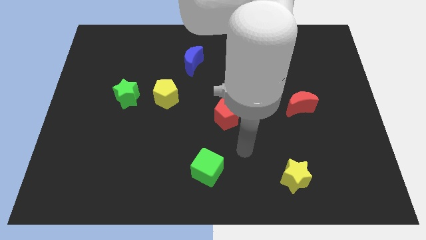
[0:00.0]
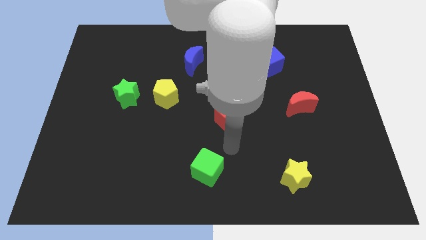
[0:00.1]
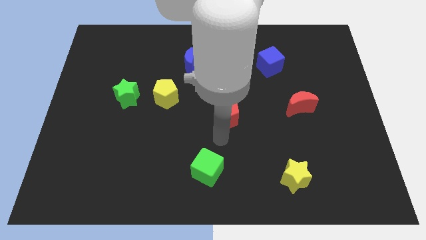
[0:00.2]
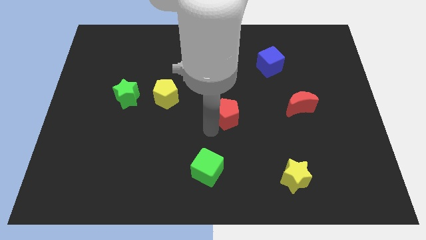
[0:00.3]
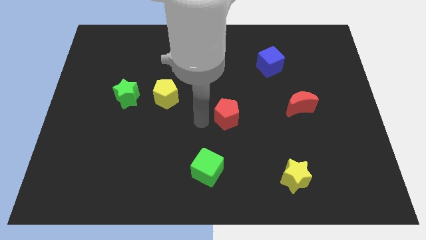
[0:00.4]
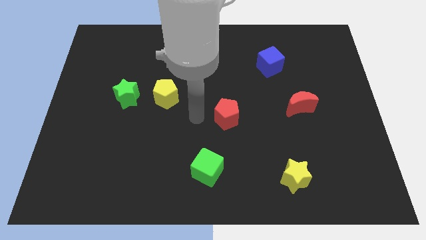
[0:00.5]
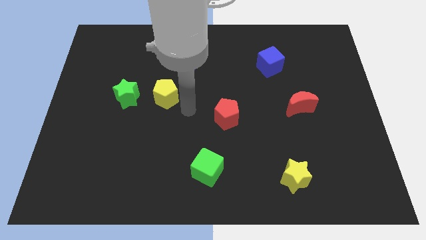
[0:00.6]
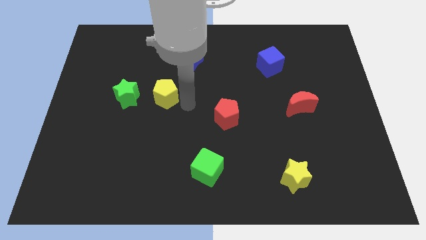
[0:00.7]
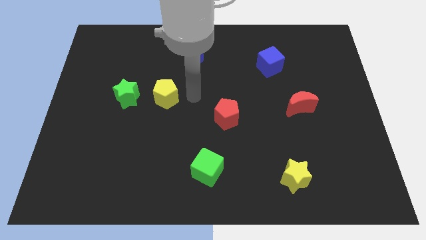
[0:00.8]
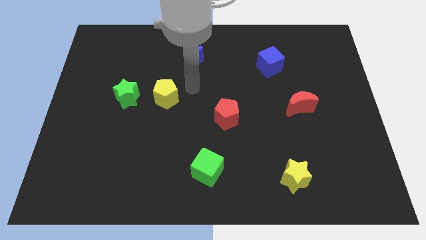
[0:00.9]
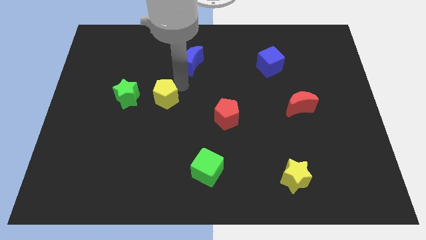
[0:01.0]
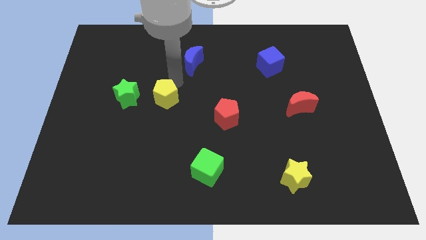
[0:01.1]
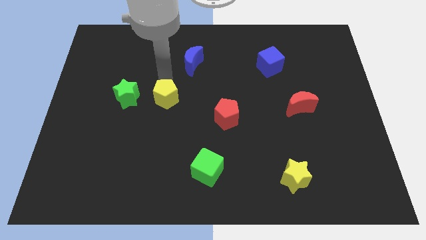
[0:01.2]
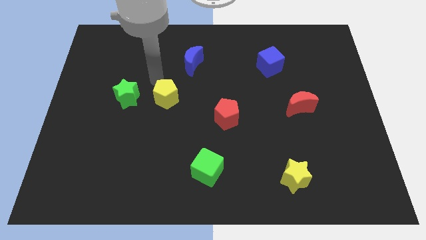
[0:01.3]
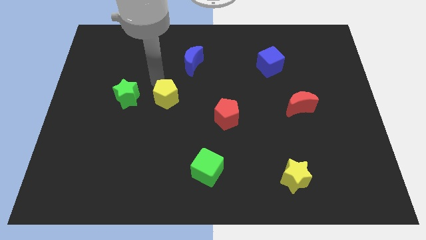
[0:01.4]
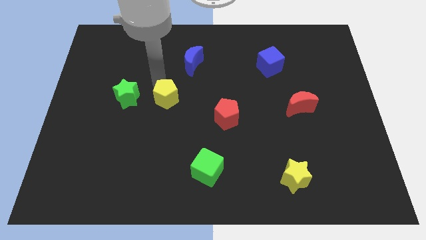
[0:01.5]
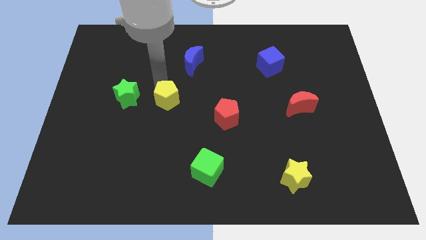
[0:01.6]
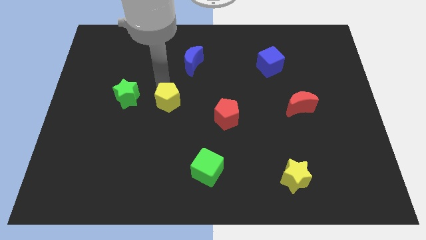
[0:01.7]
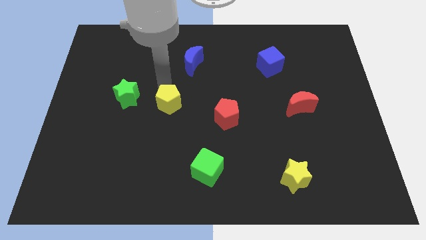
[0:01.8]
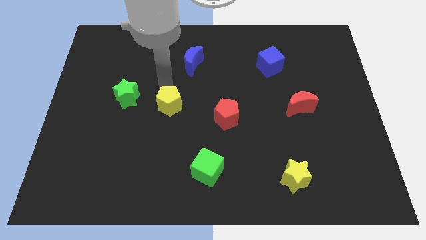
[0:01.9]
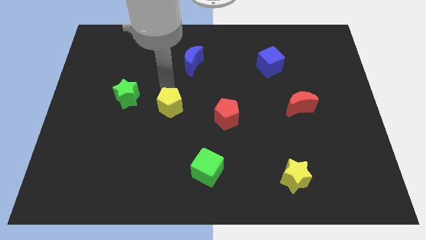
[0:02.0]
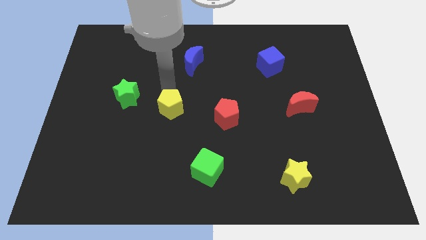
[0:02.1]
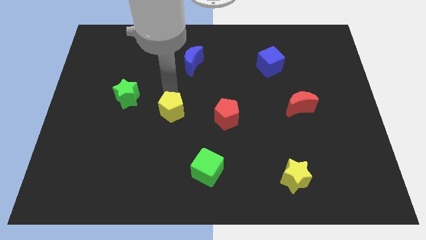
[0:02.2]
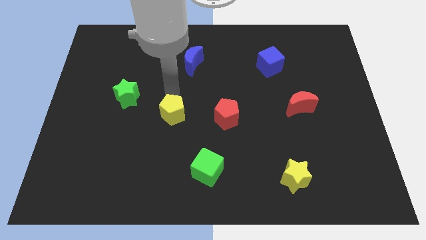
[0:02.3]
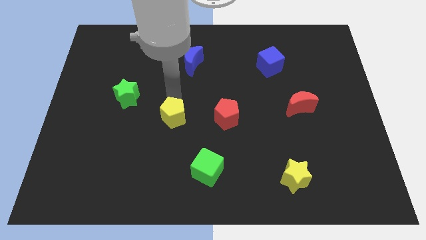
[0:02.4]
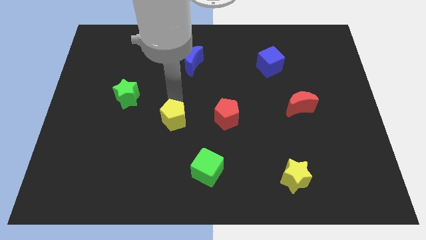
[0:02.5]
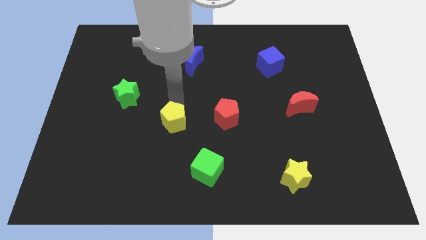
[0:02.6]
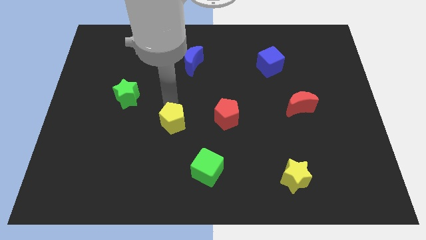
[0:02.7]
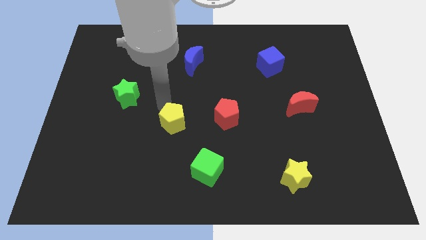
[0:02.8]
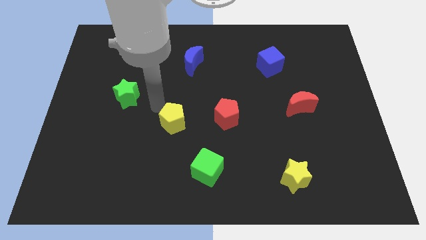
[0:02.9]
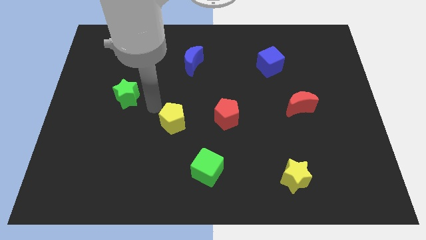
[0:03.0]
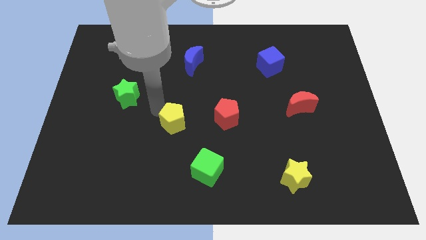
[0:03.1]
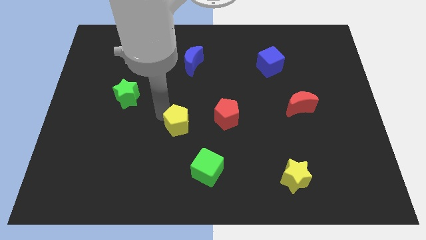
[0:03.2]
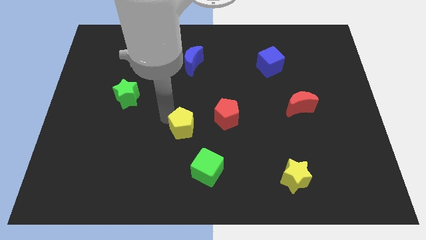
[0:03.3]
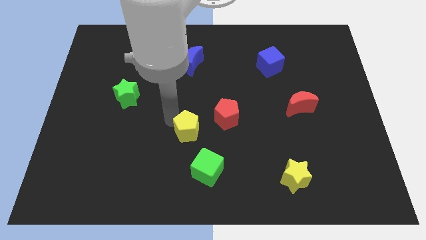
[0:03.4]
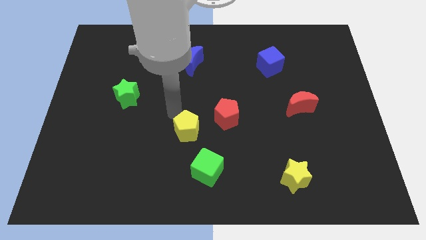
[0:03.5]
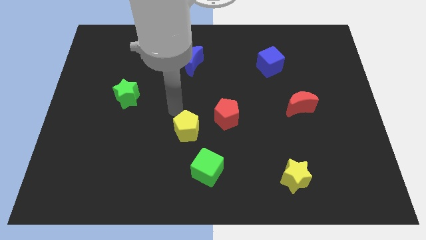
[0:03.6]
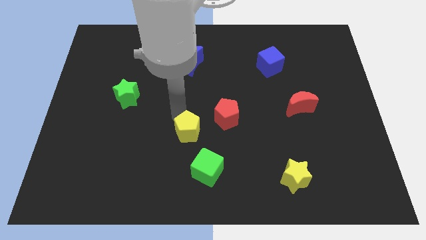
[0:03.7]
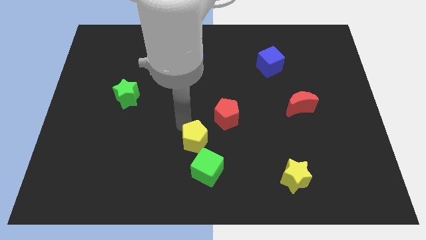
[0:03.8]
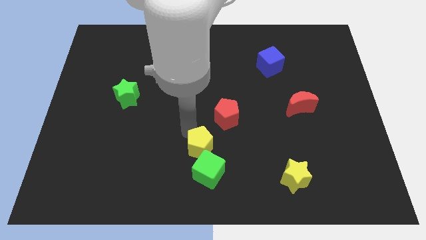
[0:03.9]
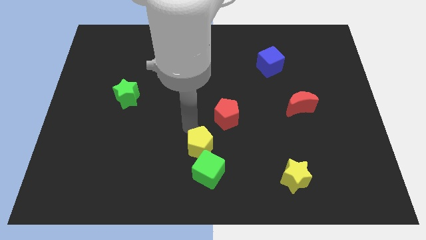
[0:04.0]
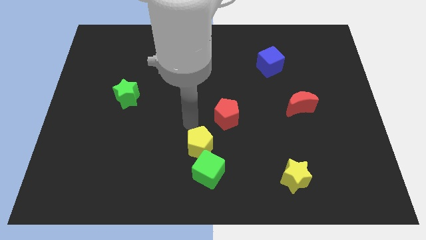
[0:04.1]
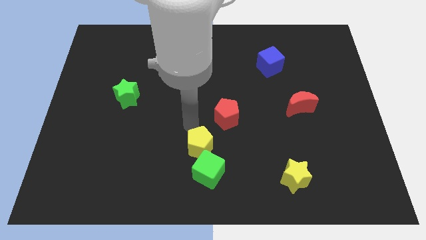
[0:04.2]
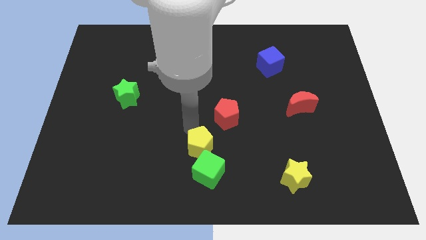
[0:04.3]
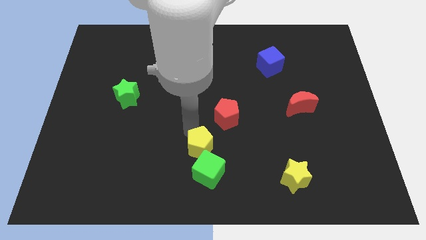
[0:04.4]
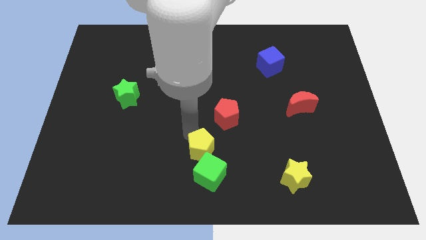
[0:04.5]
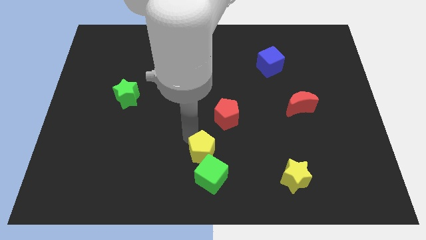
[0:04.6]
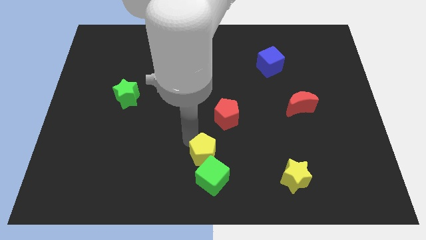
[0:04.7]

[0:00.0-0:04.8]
move the yellow pentagon next to the green cube

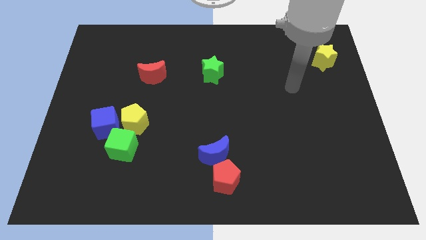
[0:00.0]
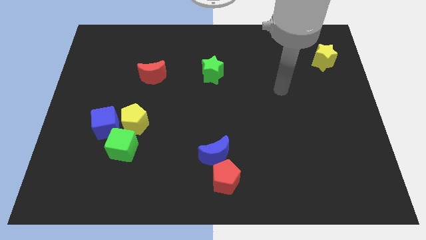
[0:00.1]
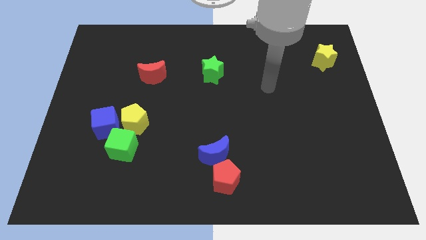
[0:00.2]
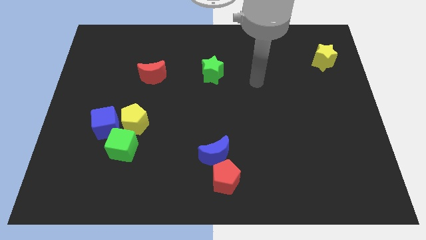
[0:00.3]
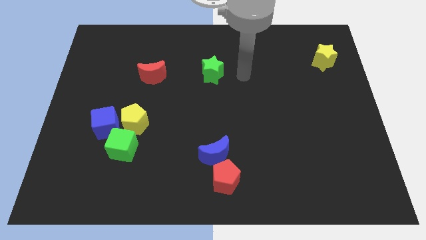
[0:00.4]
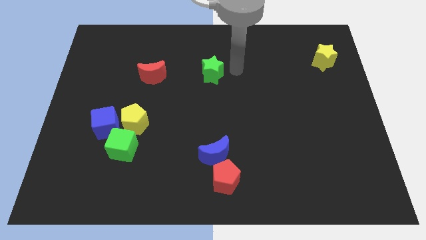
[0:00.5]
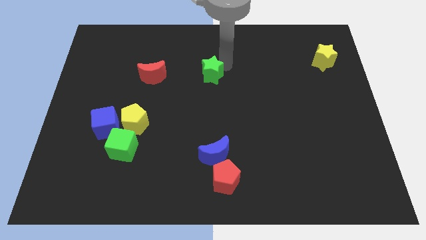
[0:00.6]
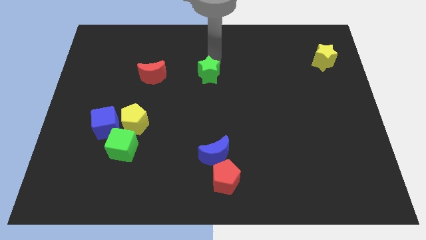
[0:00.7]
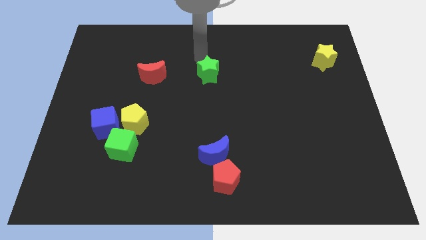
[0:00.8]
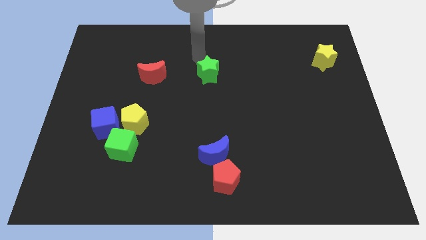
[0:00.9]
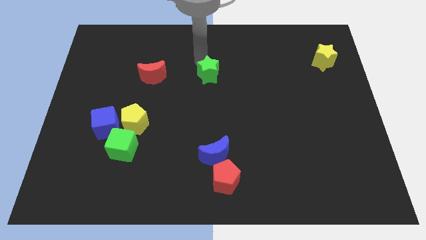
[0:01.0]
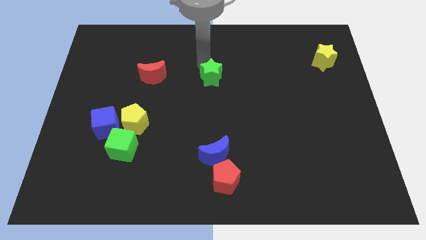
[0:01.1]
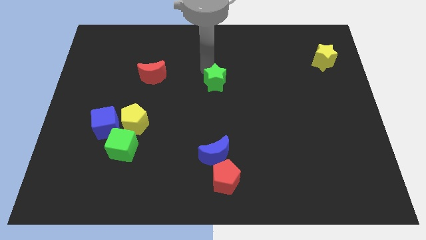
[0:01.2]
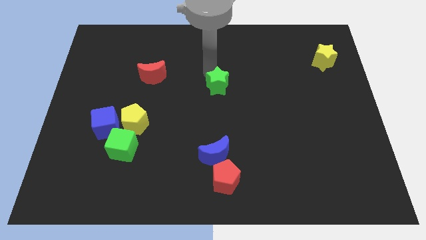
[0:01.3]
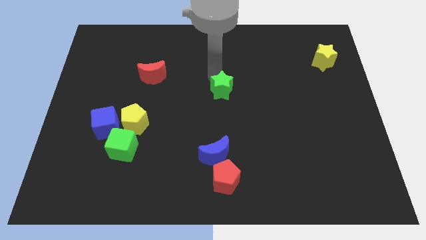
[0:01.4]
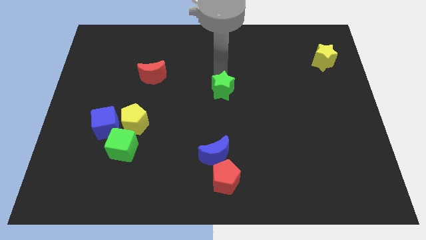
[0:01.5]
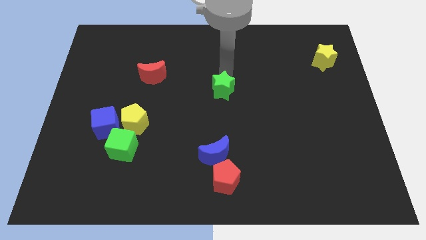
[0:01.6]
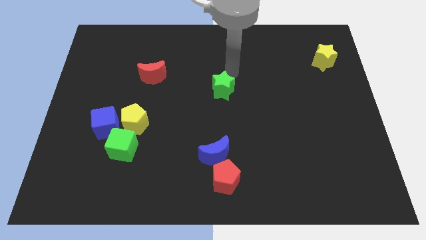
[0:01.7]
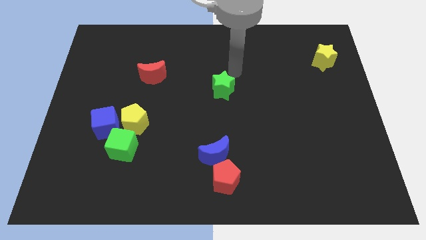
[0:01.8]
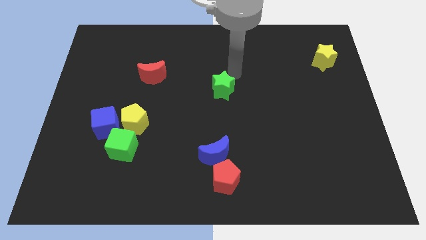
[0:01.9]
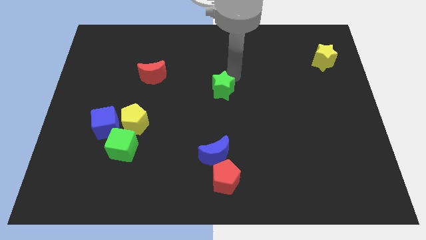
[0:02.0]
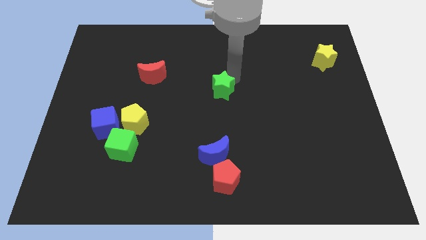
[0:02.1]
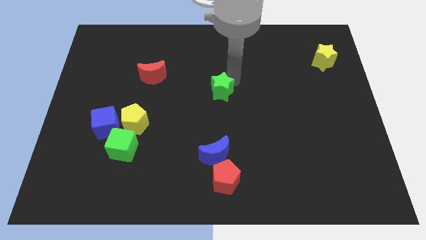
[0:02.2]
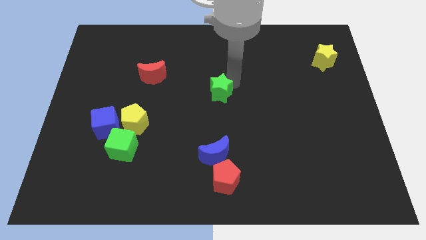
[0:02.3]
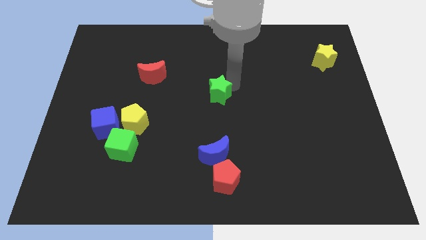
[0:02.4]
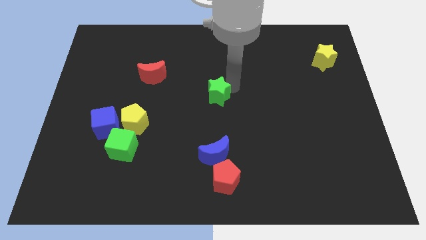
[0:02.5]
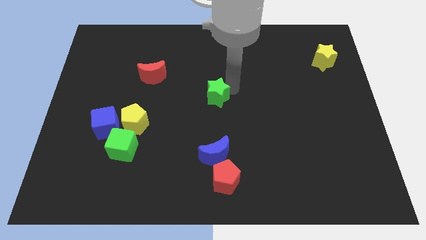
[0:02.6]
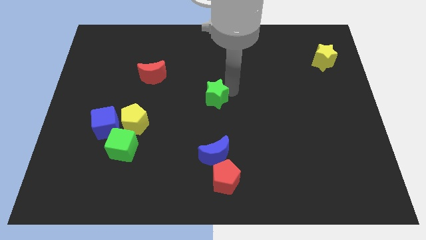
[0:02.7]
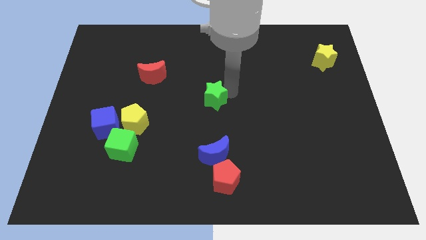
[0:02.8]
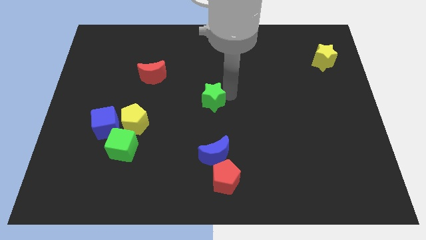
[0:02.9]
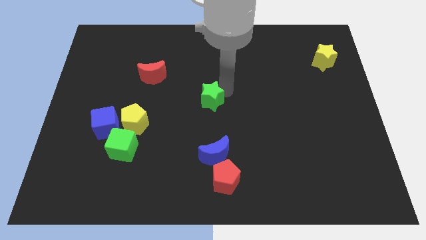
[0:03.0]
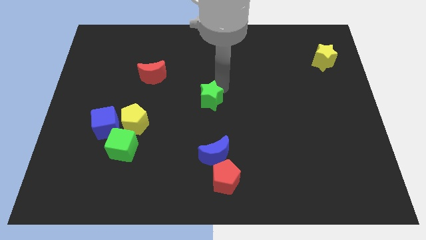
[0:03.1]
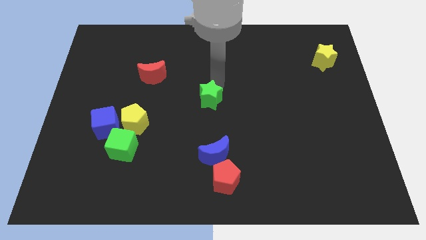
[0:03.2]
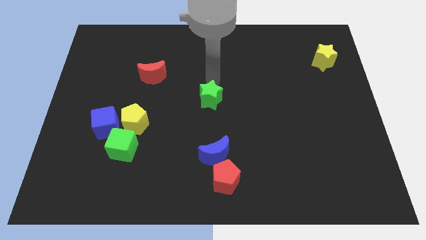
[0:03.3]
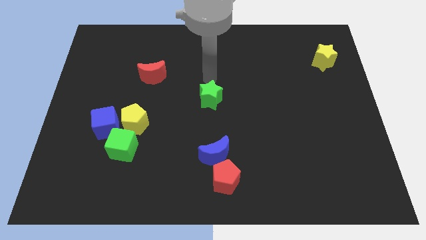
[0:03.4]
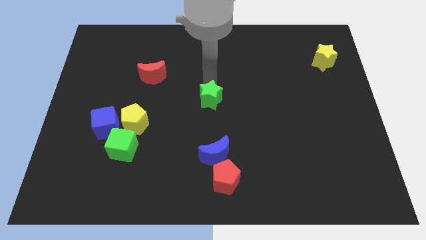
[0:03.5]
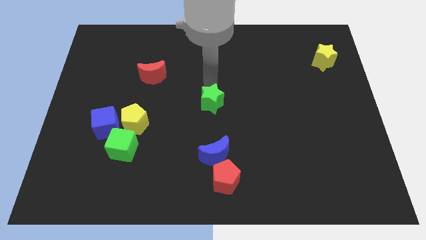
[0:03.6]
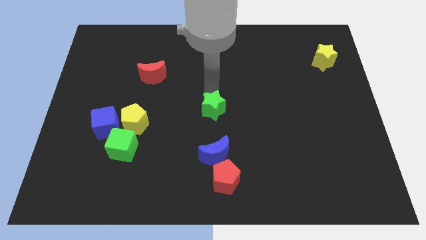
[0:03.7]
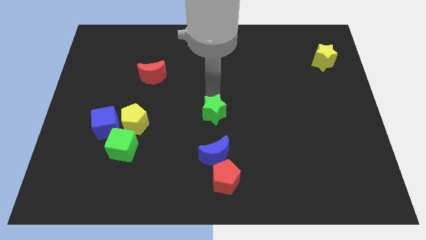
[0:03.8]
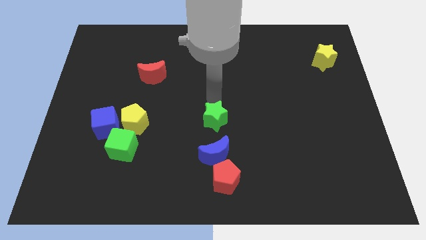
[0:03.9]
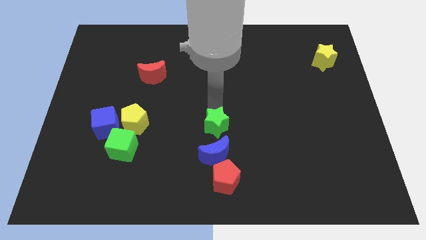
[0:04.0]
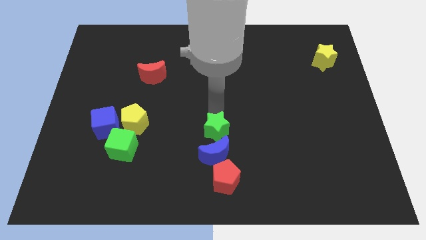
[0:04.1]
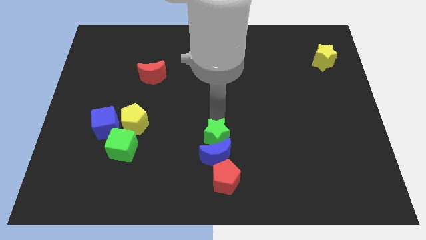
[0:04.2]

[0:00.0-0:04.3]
push the green star to the blue moon
